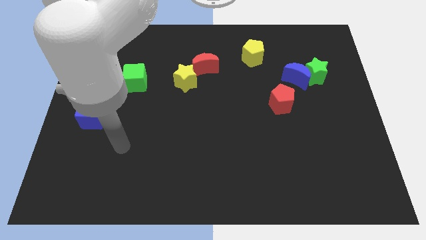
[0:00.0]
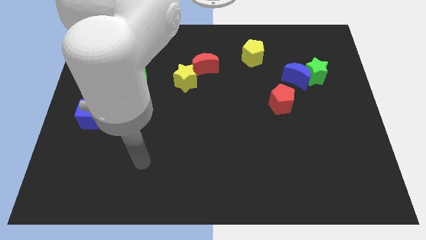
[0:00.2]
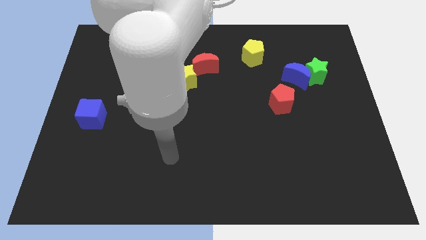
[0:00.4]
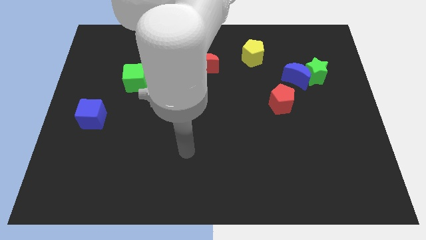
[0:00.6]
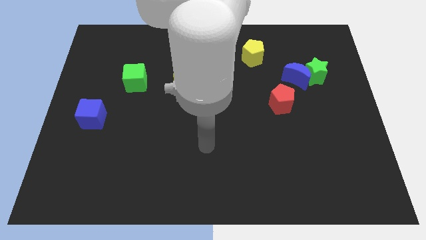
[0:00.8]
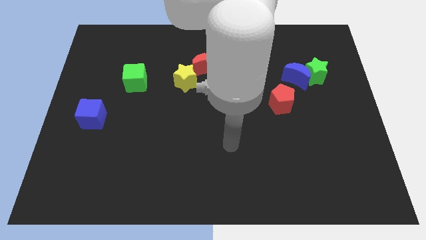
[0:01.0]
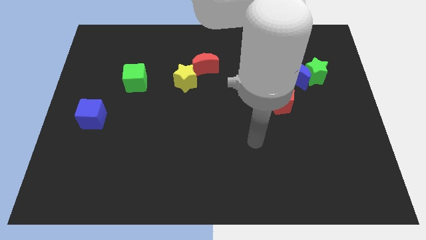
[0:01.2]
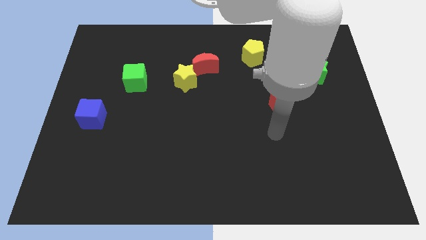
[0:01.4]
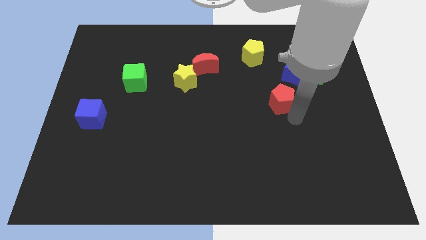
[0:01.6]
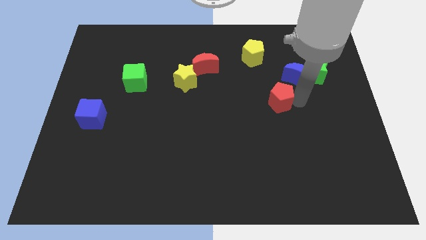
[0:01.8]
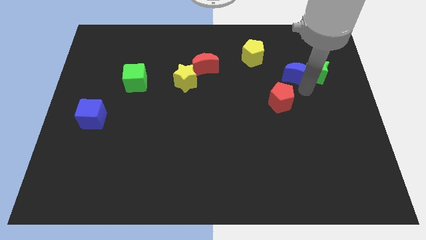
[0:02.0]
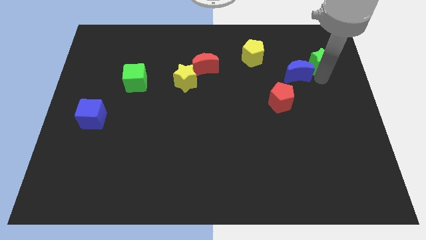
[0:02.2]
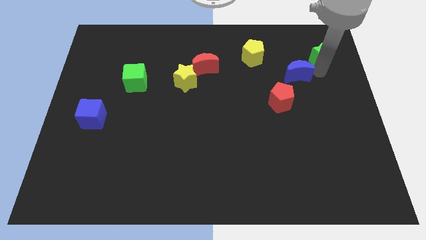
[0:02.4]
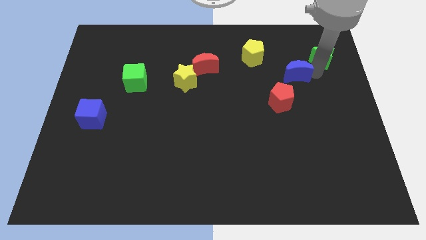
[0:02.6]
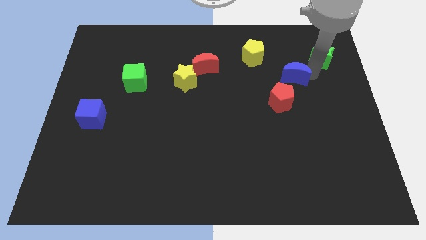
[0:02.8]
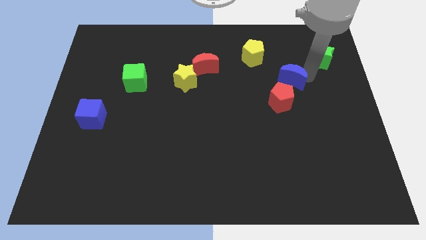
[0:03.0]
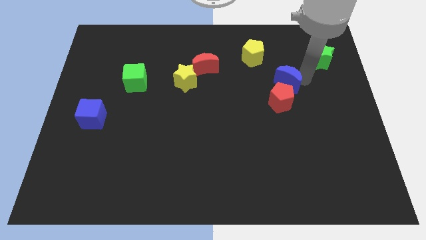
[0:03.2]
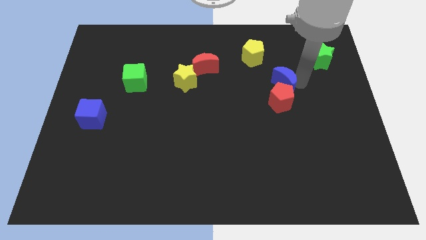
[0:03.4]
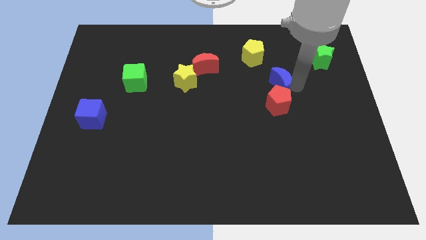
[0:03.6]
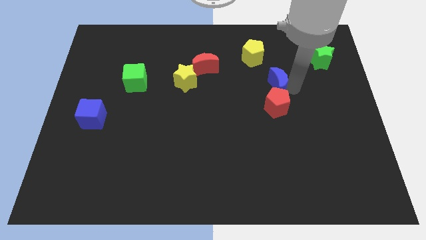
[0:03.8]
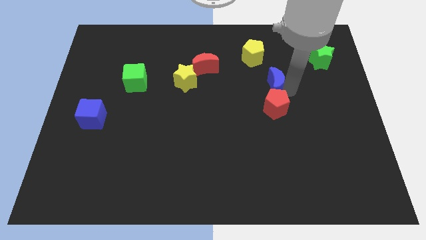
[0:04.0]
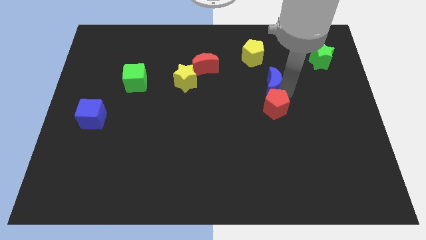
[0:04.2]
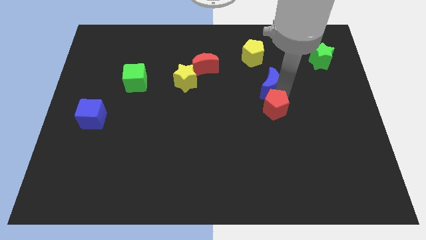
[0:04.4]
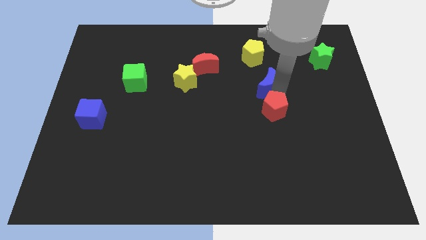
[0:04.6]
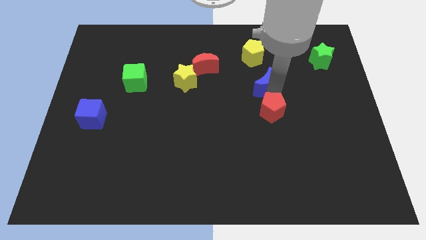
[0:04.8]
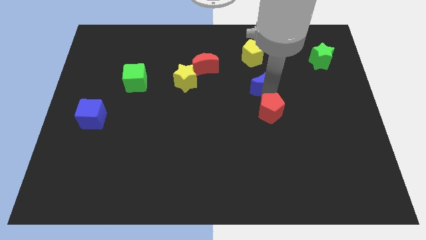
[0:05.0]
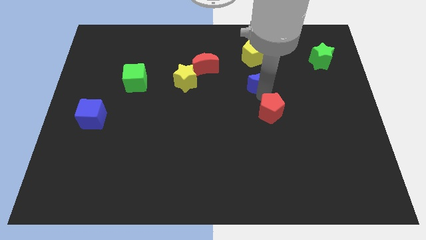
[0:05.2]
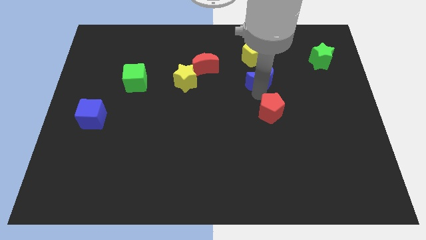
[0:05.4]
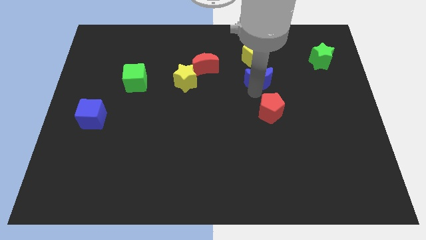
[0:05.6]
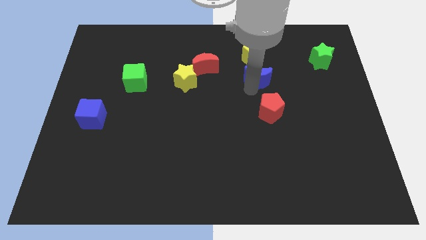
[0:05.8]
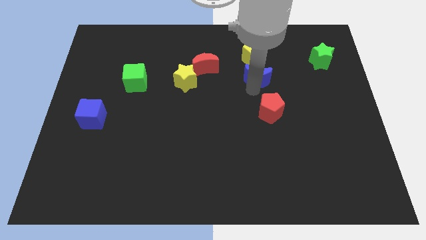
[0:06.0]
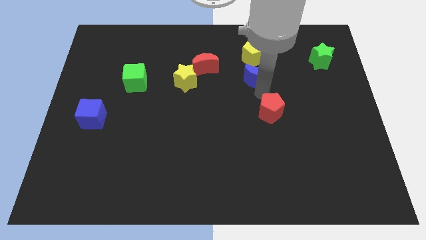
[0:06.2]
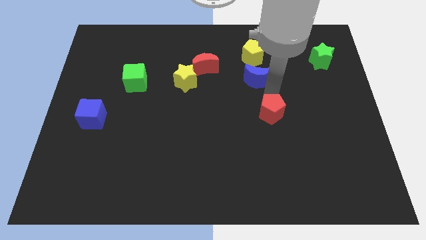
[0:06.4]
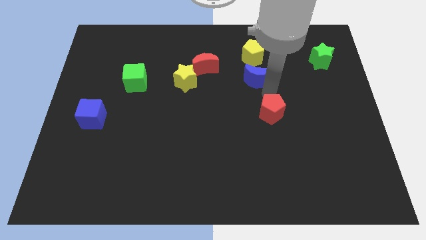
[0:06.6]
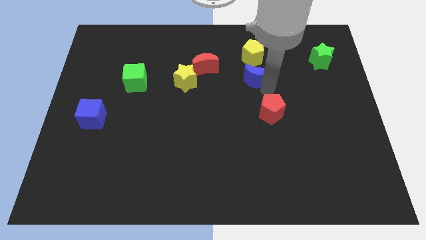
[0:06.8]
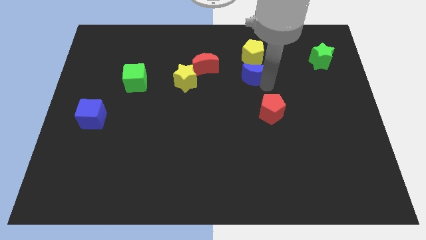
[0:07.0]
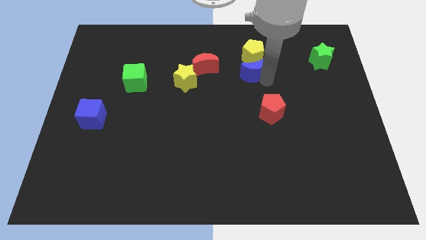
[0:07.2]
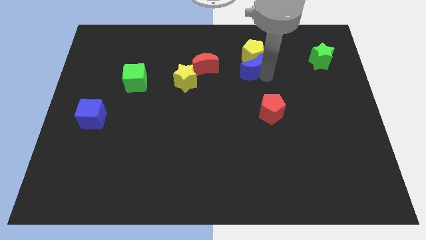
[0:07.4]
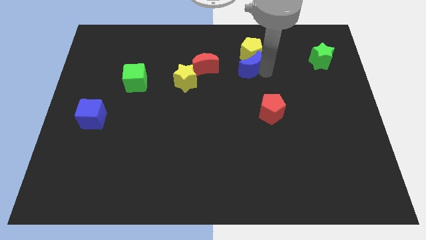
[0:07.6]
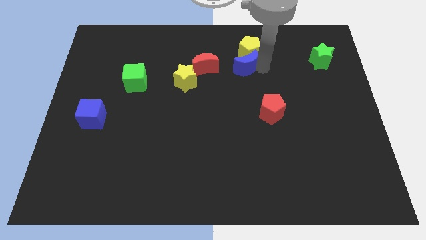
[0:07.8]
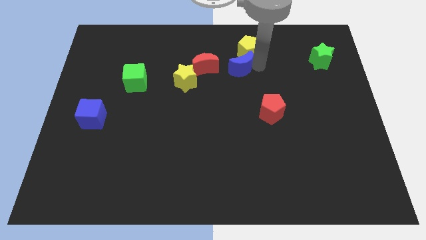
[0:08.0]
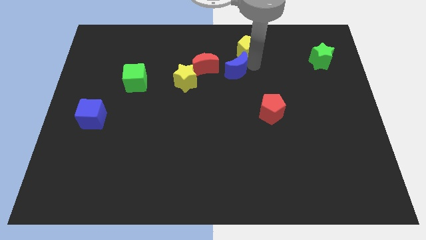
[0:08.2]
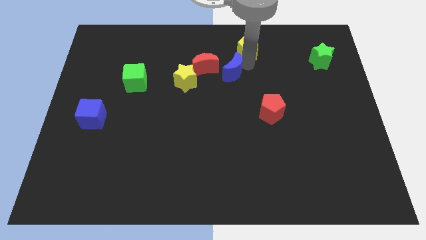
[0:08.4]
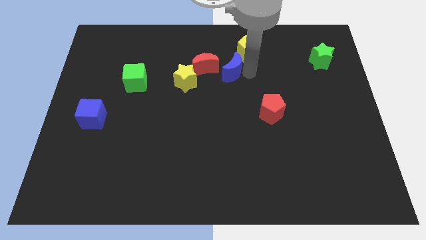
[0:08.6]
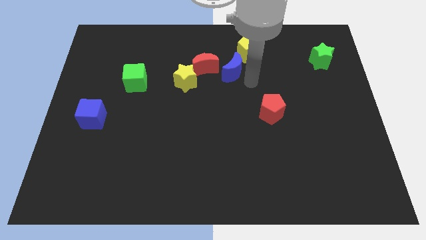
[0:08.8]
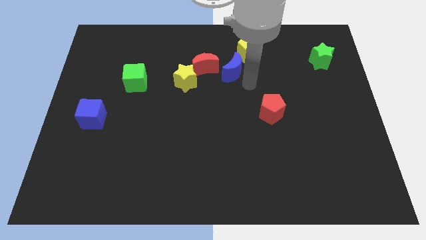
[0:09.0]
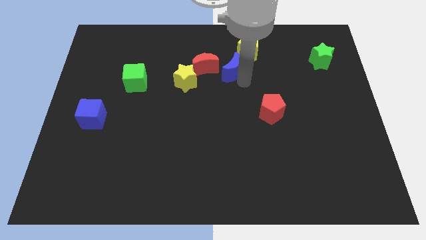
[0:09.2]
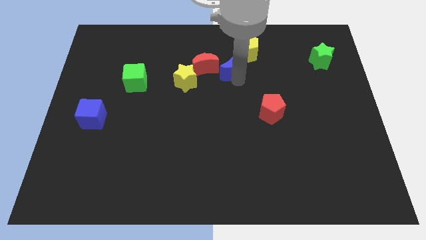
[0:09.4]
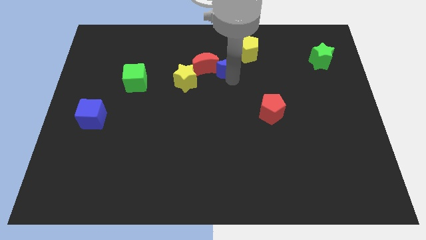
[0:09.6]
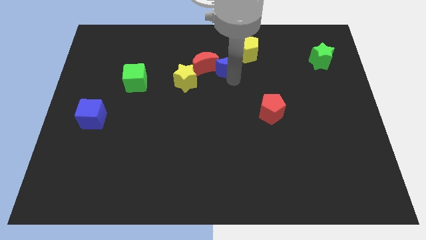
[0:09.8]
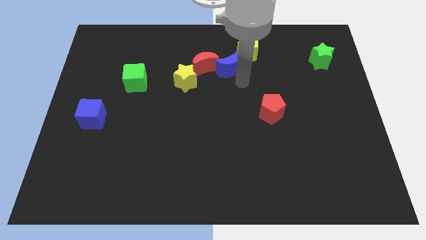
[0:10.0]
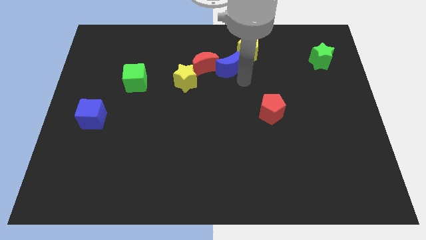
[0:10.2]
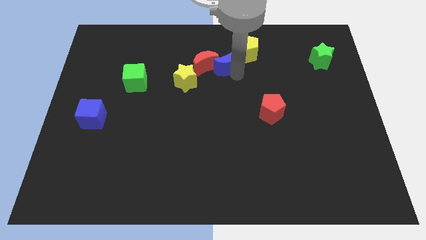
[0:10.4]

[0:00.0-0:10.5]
push the blue moon diagonally up and to the right of the yellow star

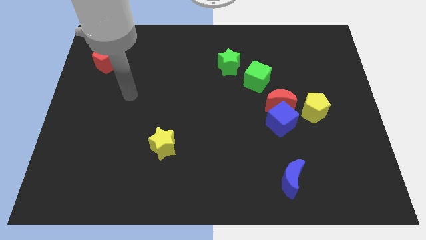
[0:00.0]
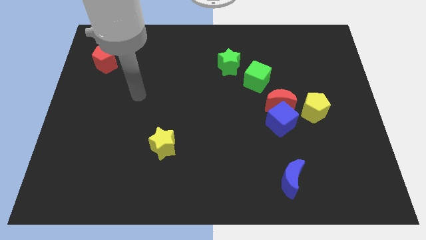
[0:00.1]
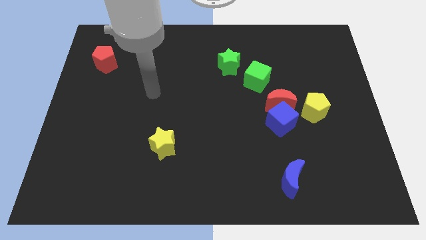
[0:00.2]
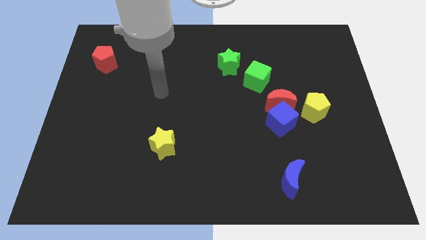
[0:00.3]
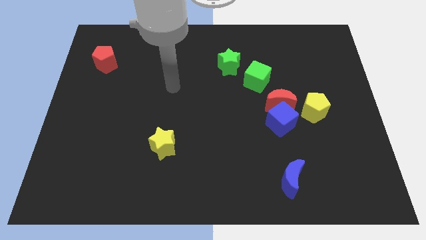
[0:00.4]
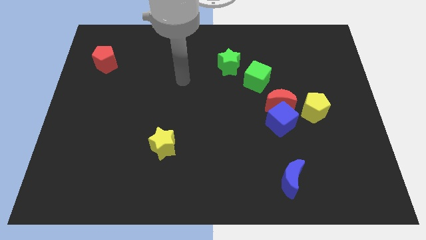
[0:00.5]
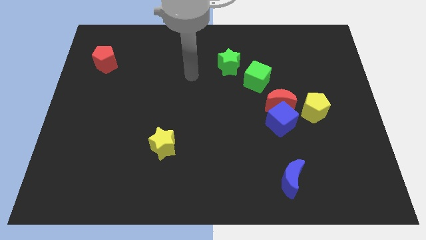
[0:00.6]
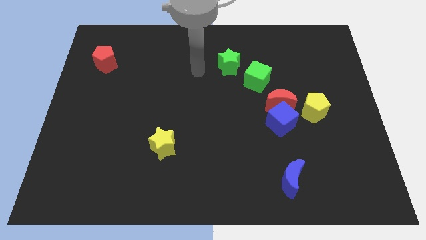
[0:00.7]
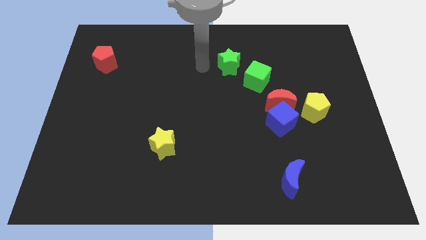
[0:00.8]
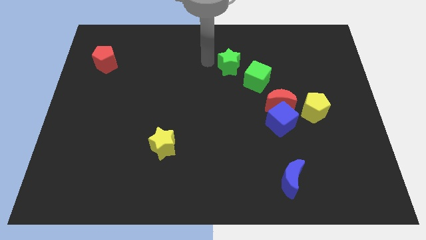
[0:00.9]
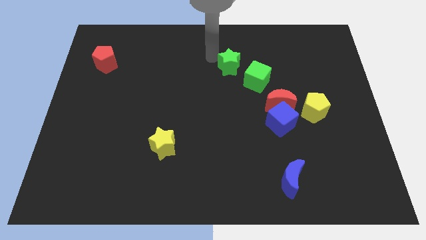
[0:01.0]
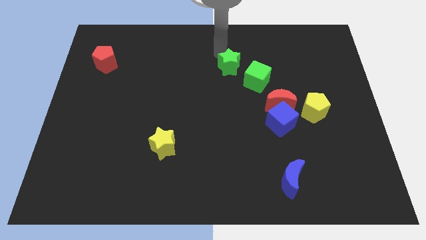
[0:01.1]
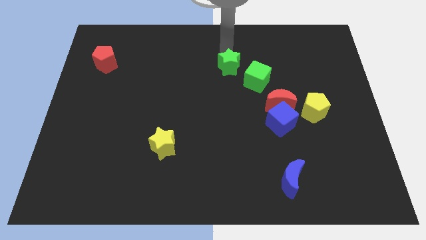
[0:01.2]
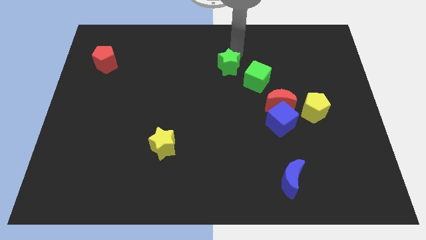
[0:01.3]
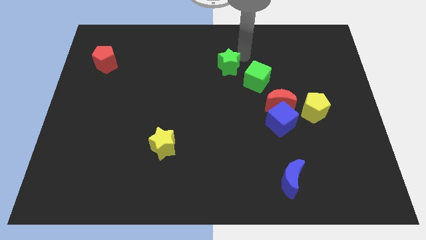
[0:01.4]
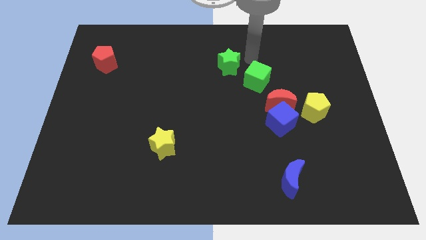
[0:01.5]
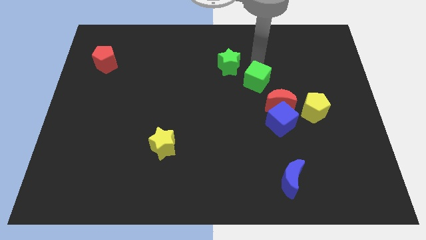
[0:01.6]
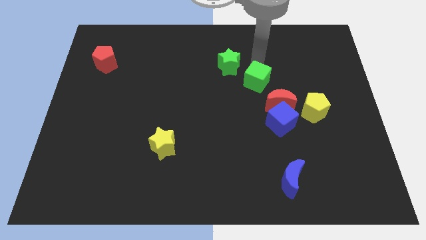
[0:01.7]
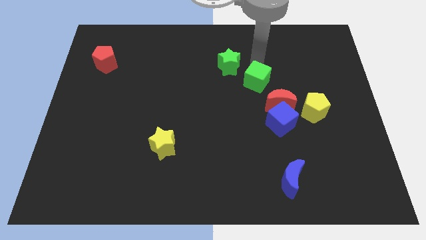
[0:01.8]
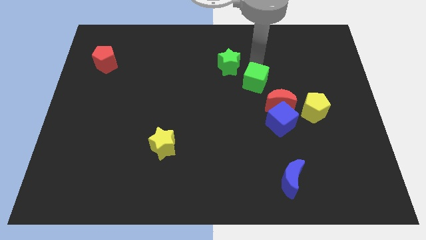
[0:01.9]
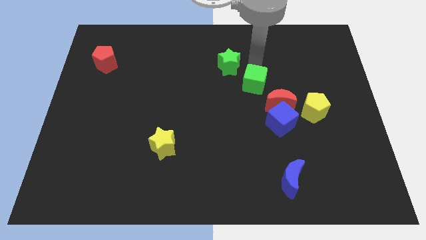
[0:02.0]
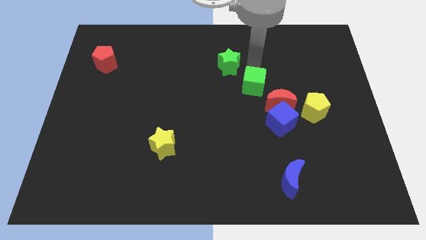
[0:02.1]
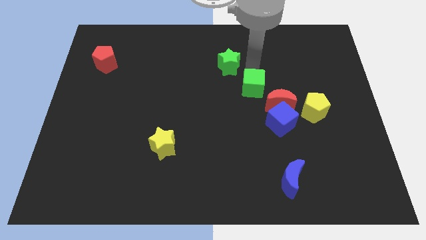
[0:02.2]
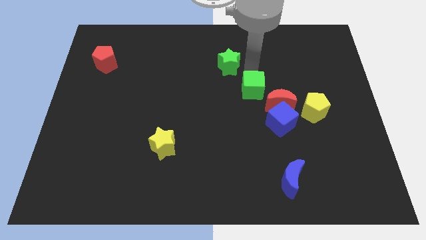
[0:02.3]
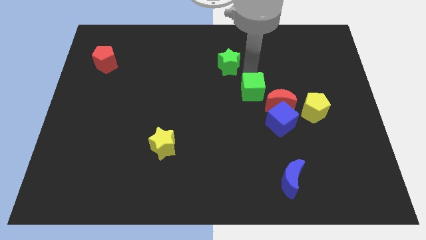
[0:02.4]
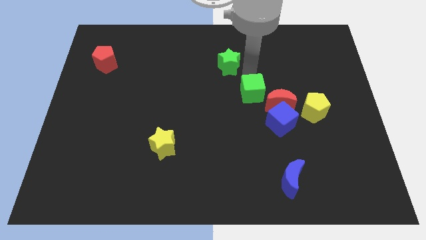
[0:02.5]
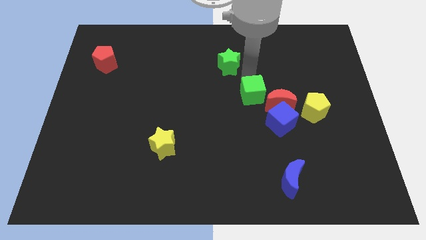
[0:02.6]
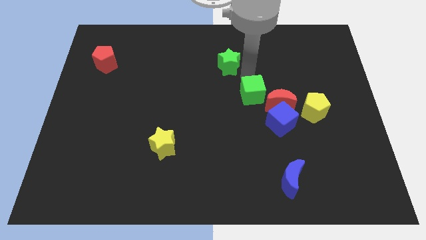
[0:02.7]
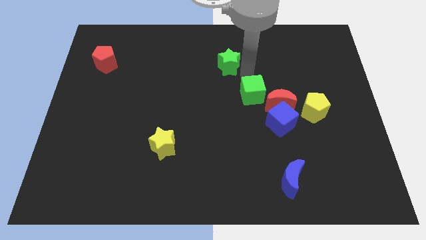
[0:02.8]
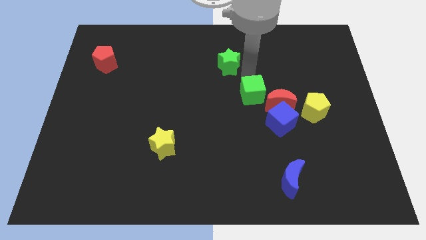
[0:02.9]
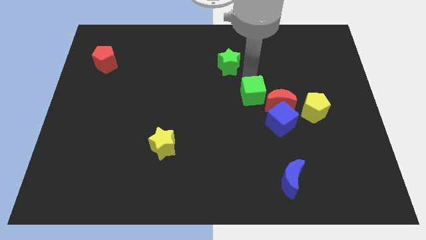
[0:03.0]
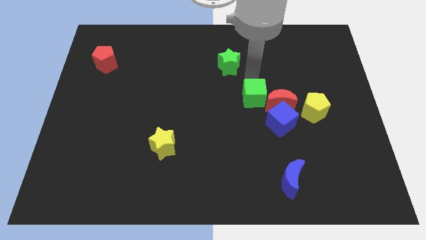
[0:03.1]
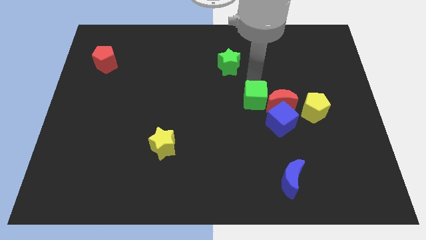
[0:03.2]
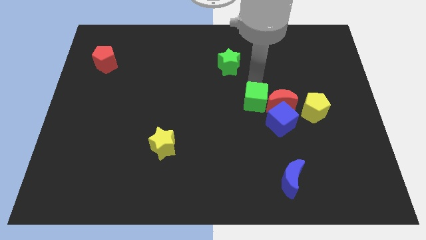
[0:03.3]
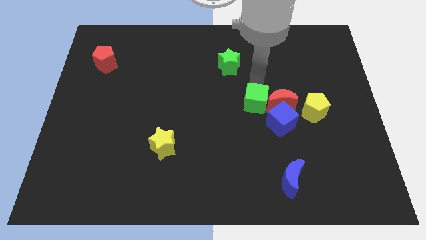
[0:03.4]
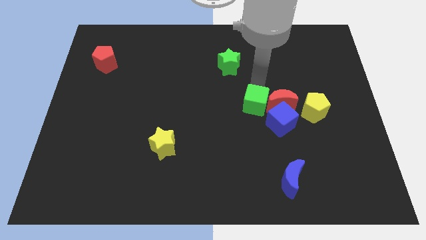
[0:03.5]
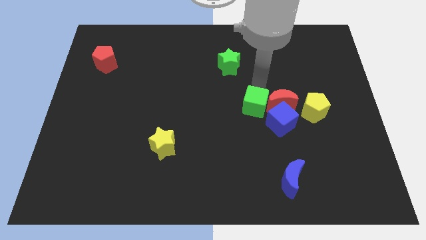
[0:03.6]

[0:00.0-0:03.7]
push the green cube just left of the blue cube
